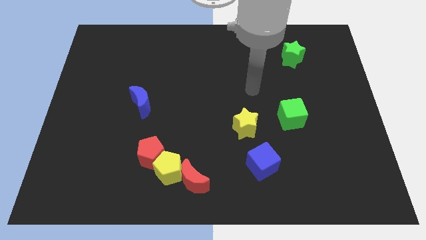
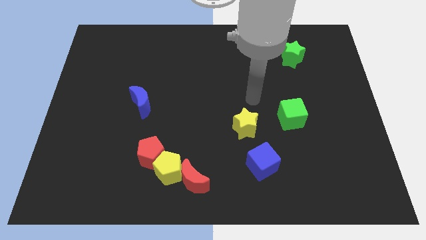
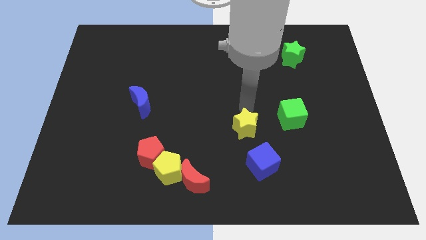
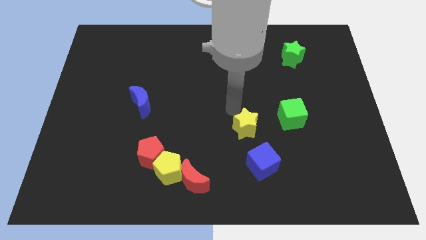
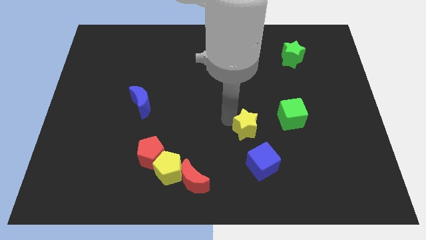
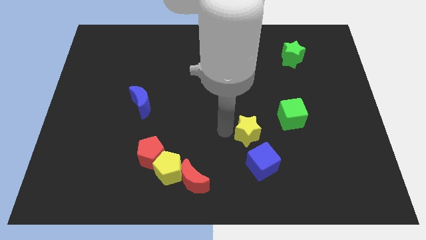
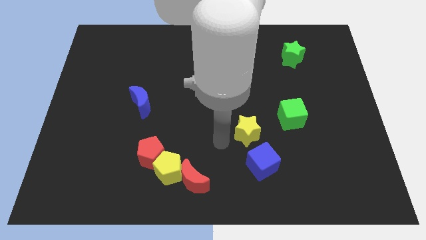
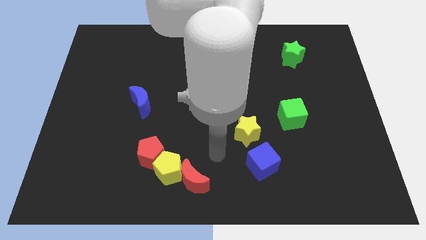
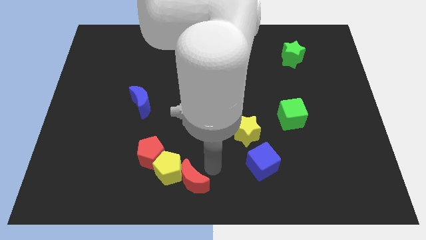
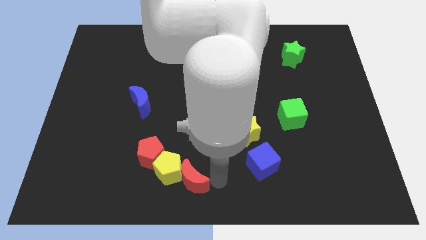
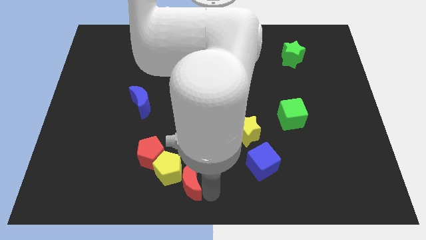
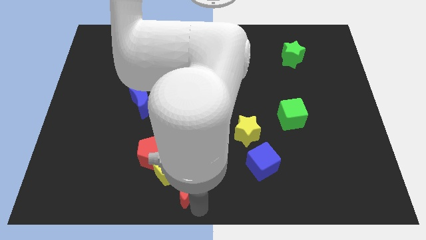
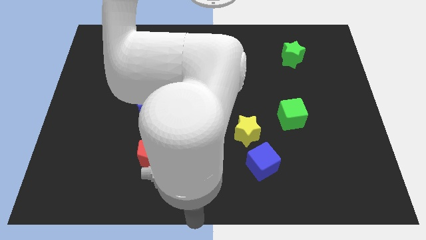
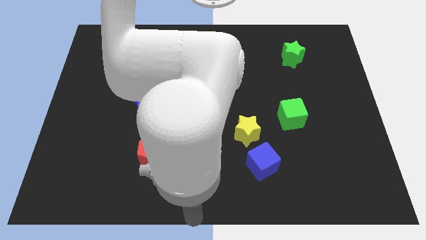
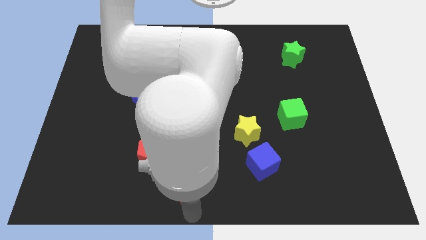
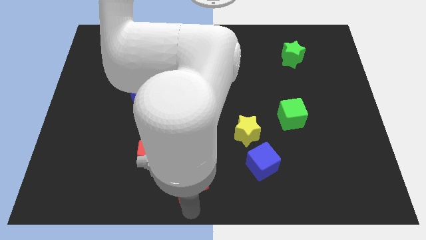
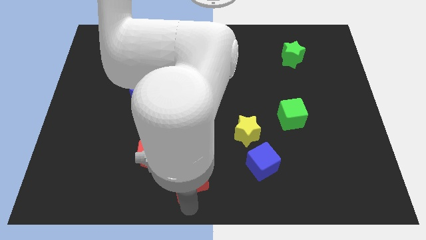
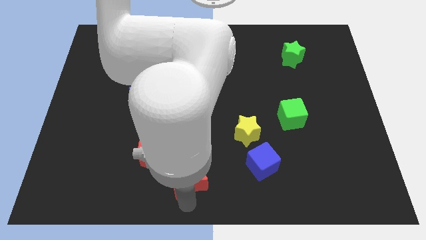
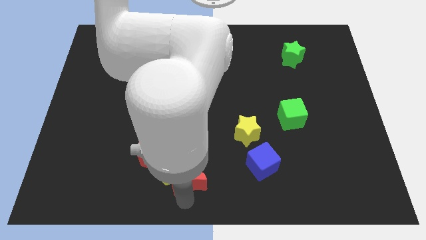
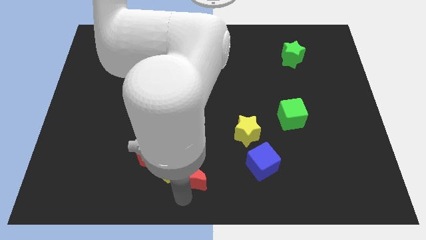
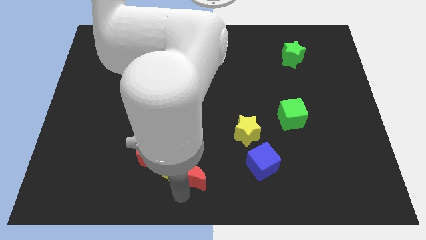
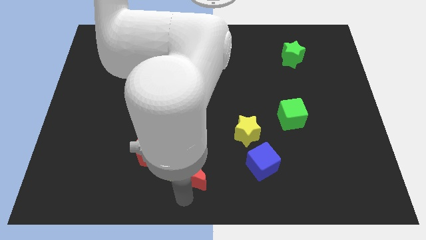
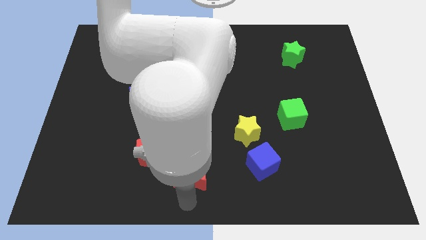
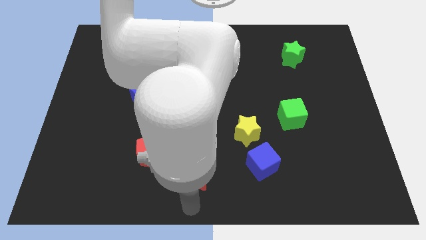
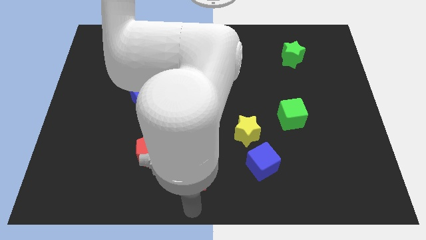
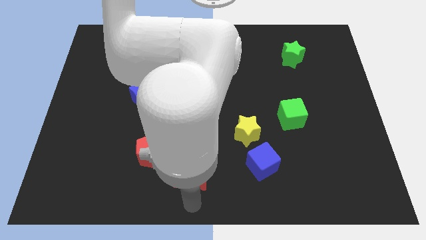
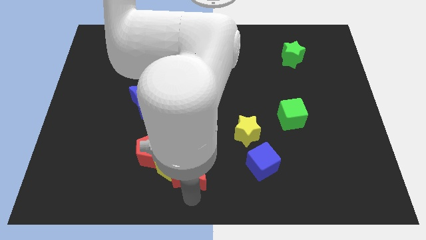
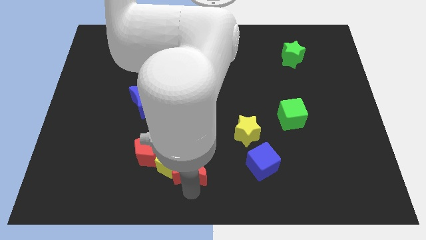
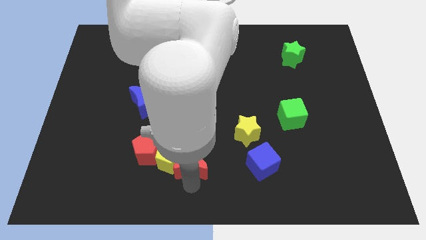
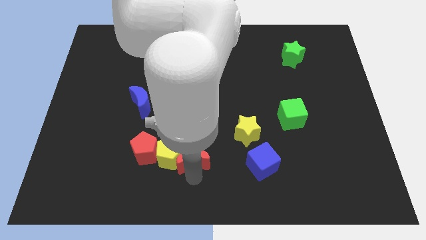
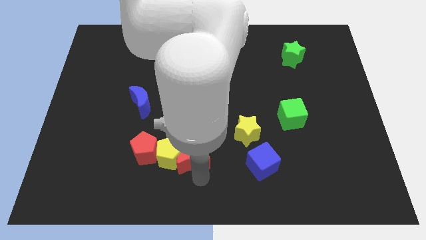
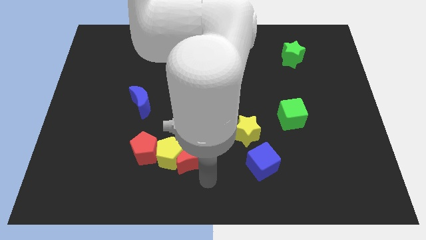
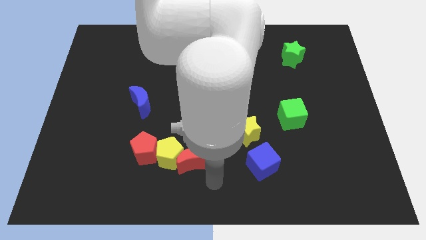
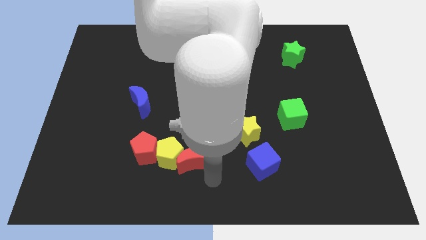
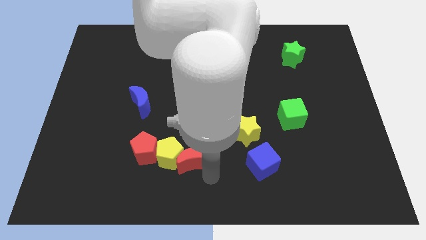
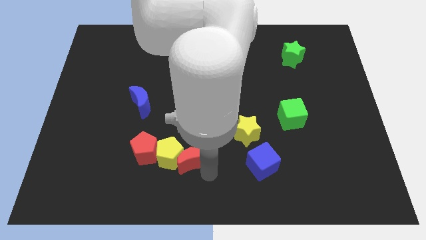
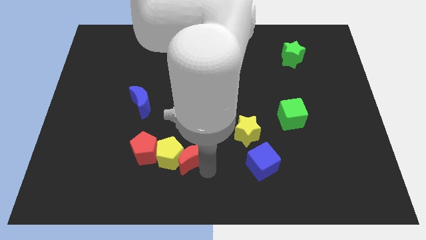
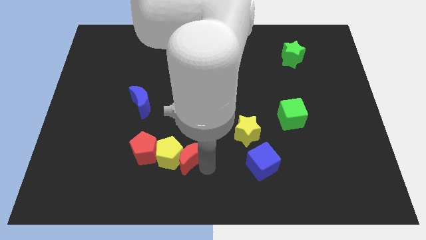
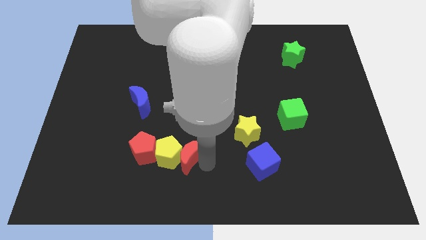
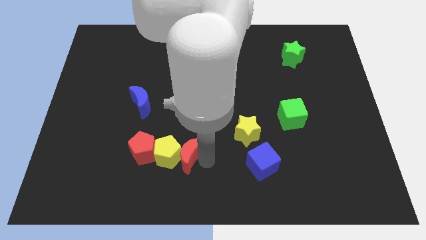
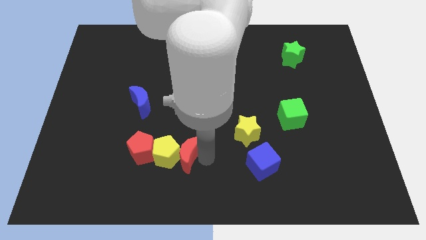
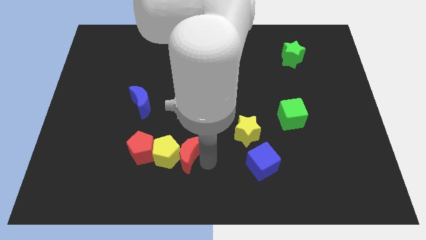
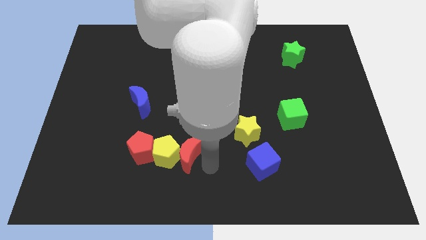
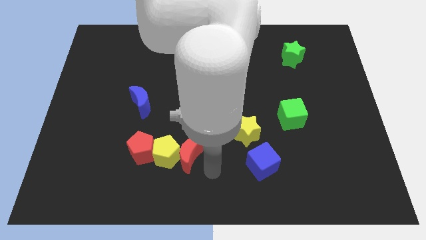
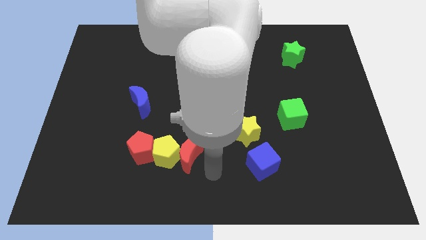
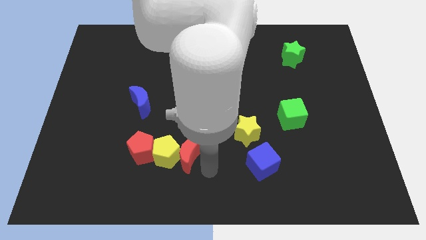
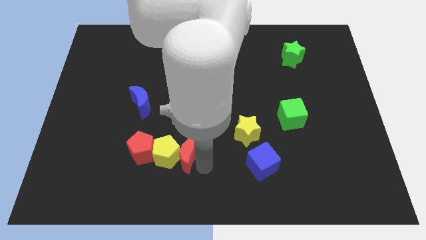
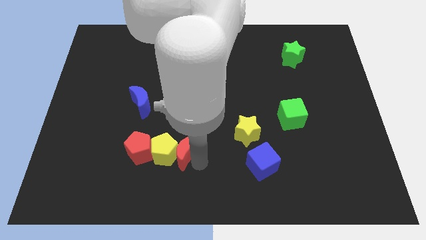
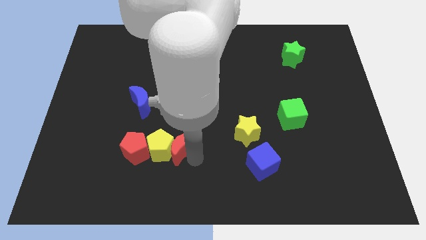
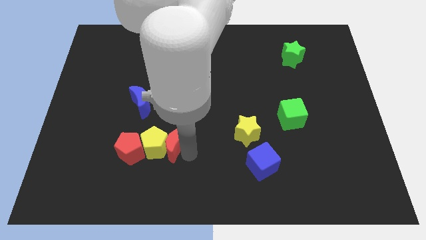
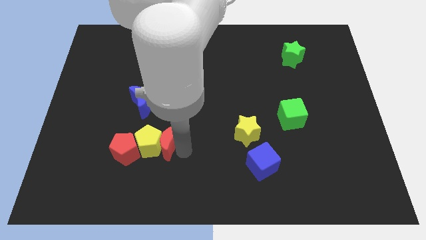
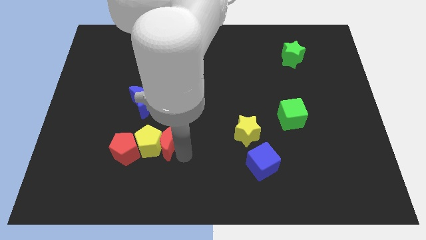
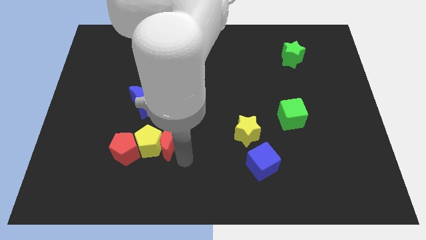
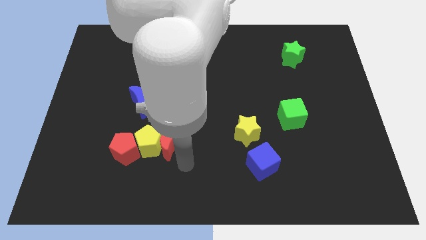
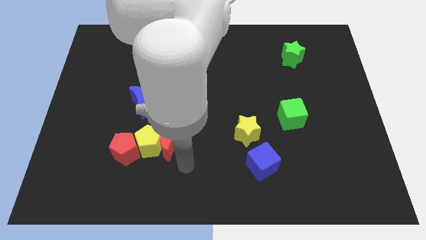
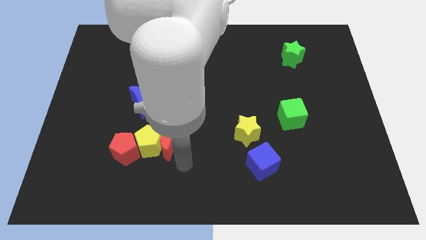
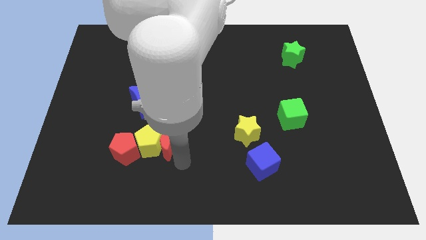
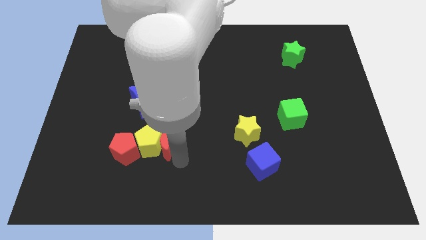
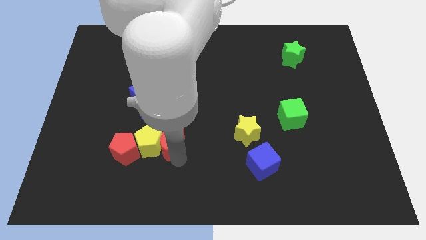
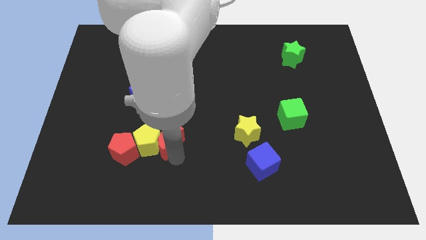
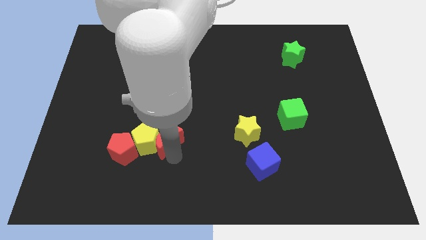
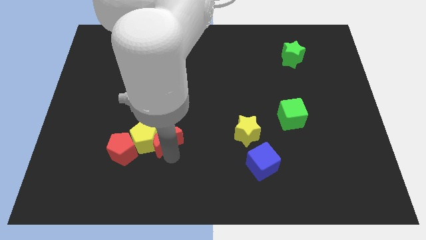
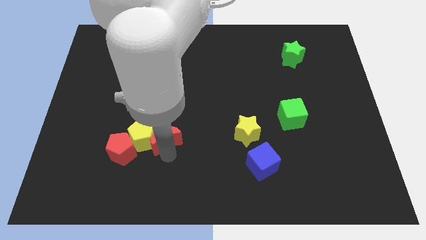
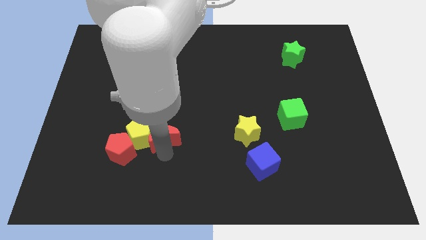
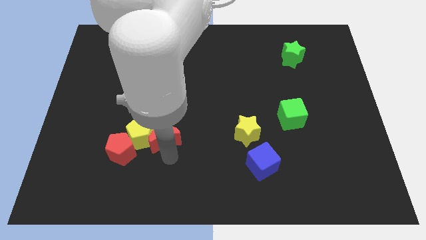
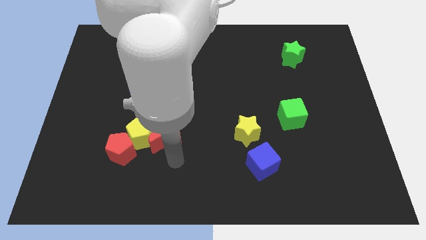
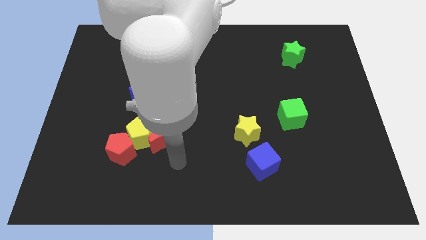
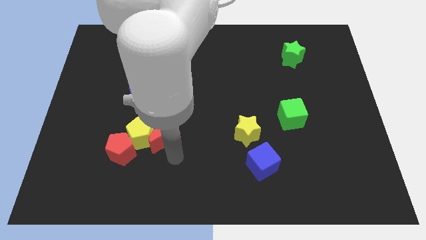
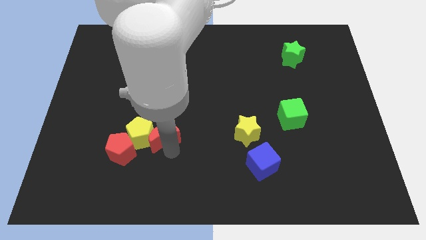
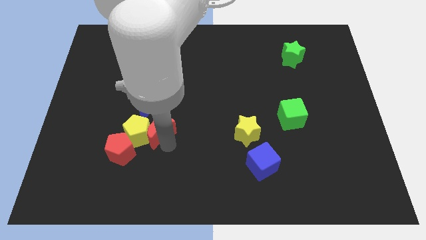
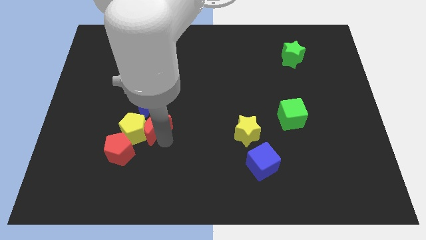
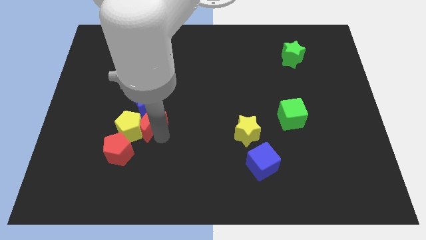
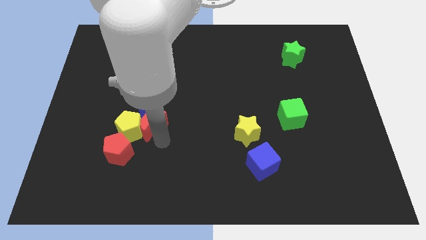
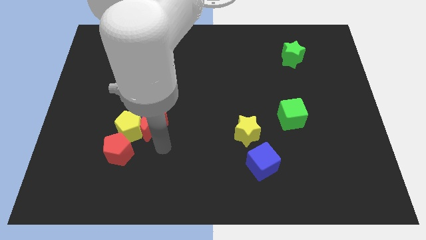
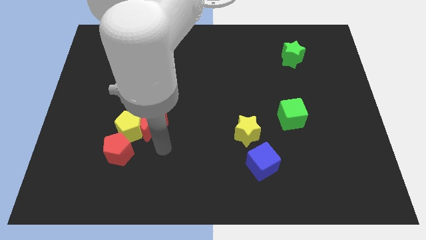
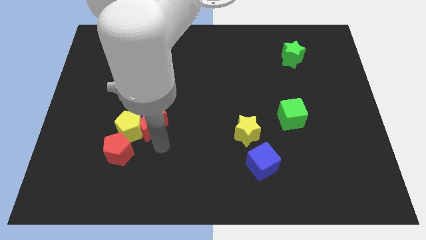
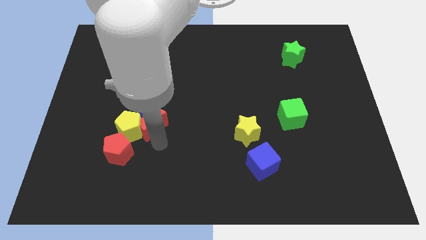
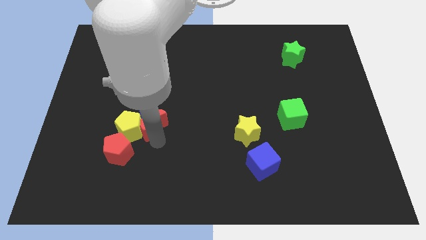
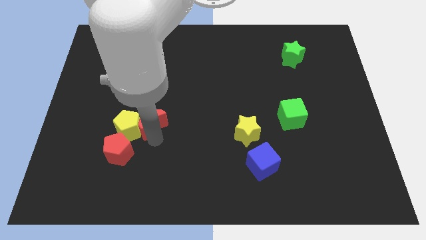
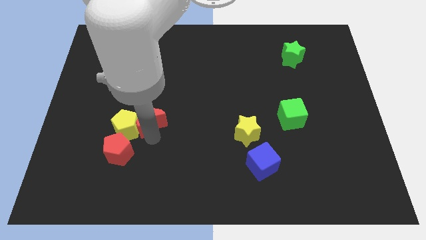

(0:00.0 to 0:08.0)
slide the red moon towards the blue moon
